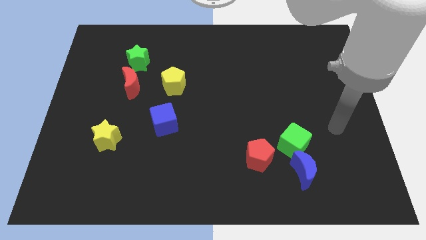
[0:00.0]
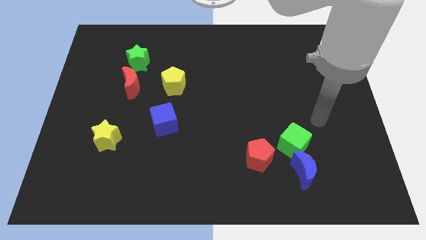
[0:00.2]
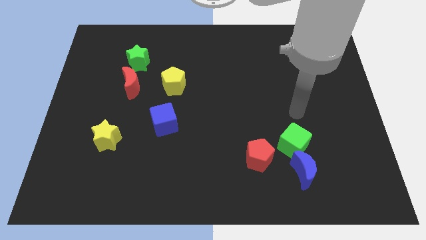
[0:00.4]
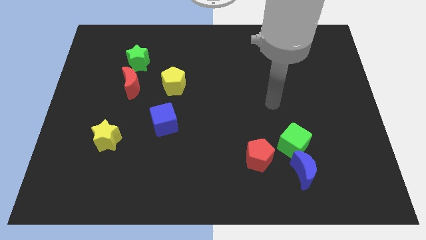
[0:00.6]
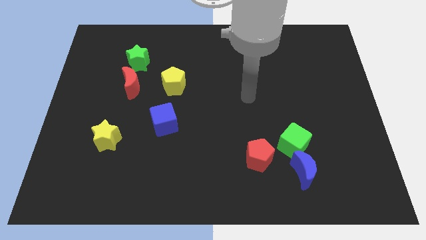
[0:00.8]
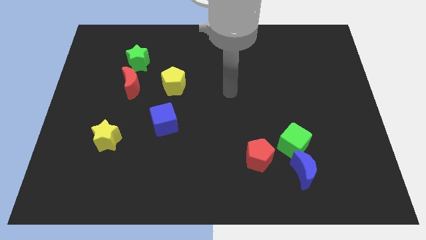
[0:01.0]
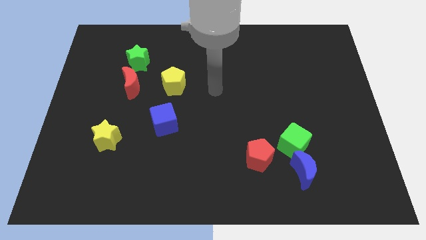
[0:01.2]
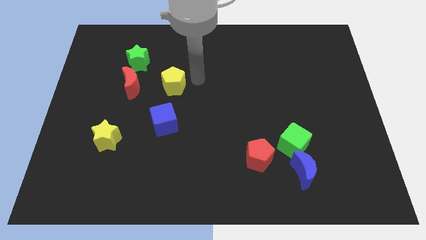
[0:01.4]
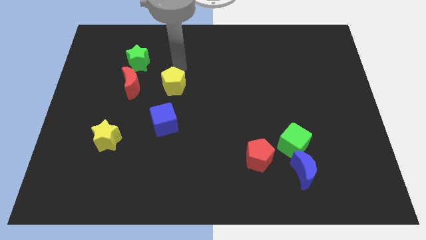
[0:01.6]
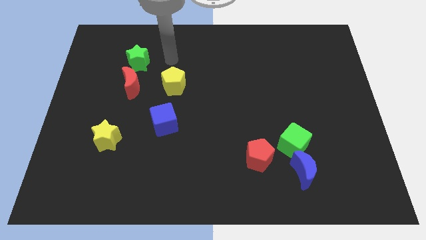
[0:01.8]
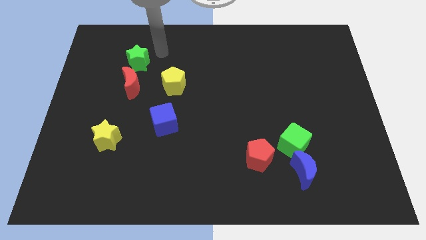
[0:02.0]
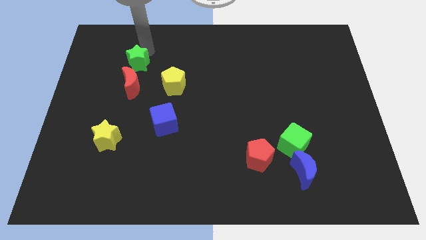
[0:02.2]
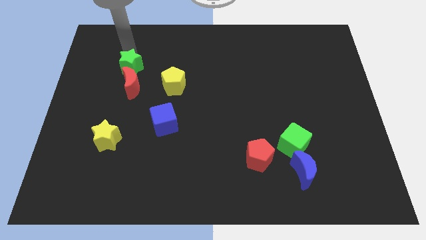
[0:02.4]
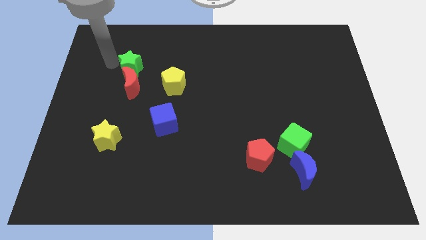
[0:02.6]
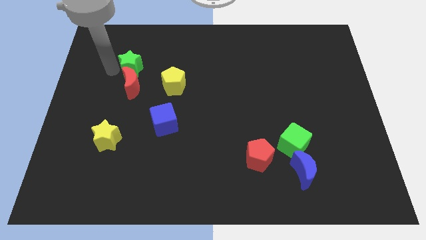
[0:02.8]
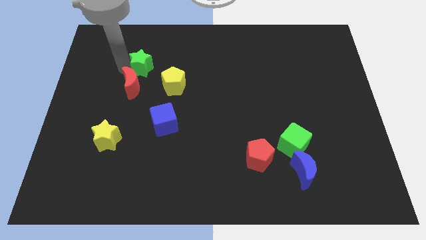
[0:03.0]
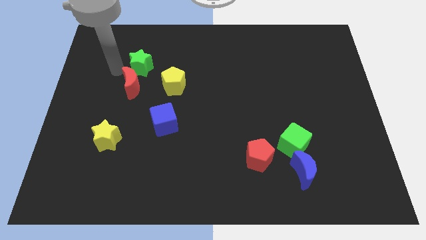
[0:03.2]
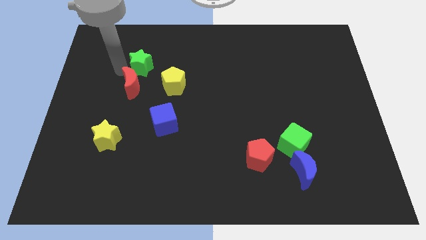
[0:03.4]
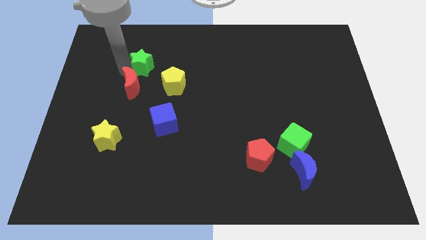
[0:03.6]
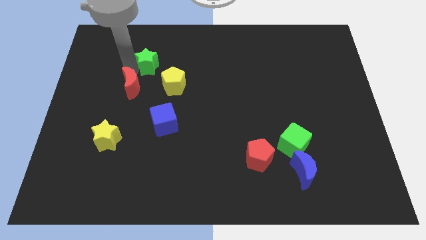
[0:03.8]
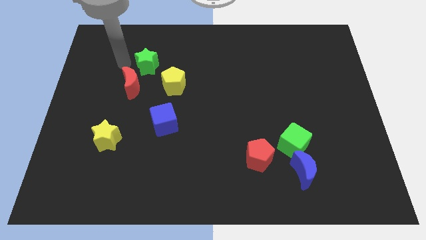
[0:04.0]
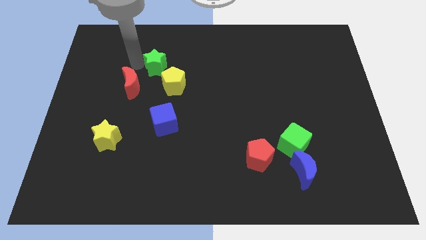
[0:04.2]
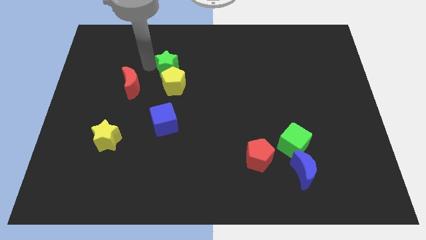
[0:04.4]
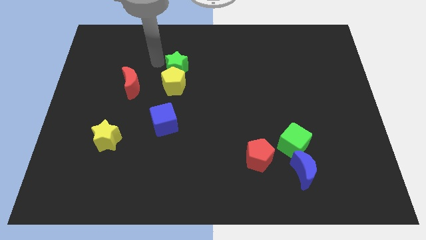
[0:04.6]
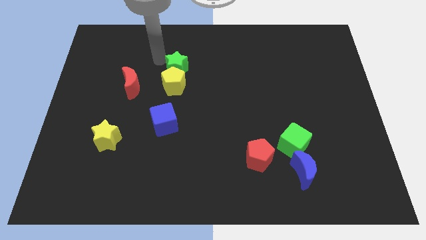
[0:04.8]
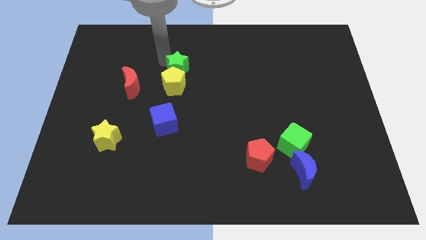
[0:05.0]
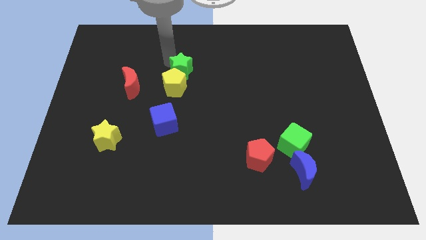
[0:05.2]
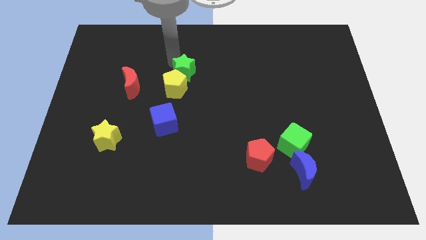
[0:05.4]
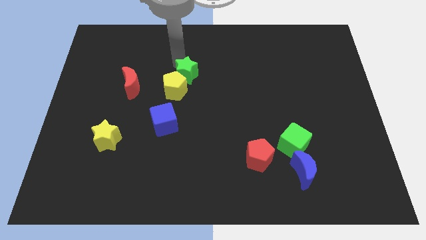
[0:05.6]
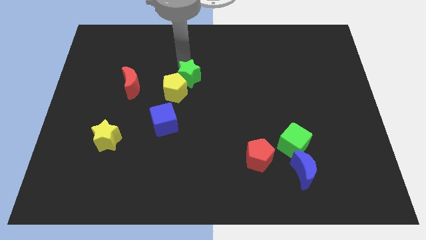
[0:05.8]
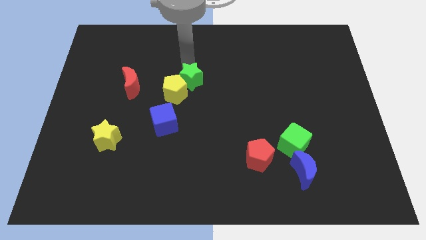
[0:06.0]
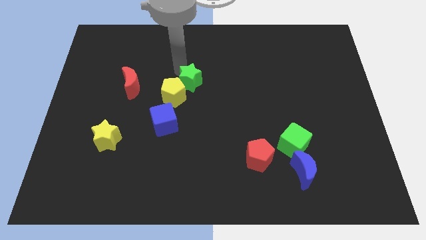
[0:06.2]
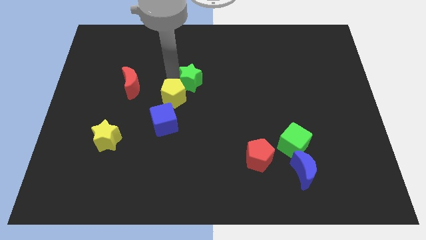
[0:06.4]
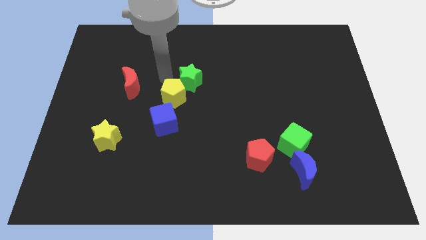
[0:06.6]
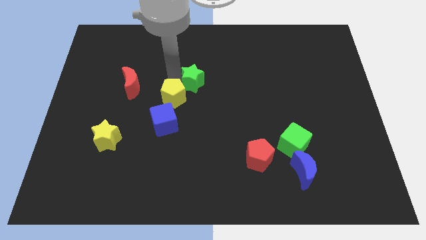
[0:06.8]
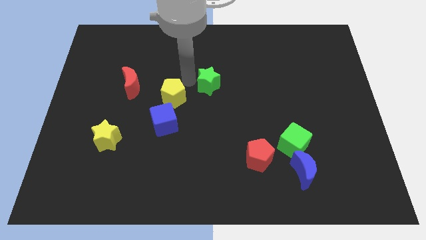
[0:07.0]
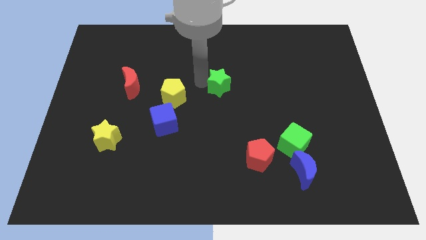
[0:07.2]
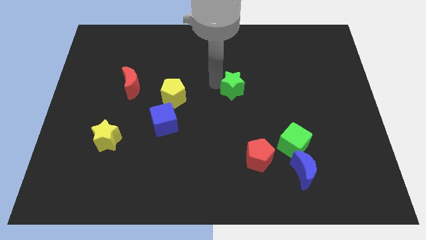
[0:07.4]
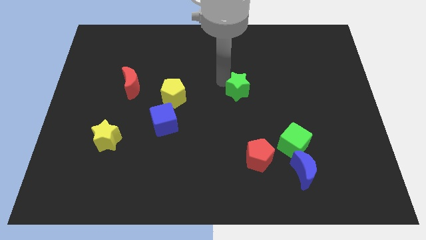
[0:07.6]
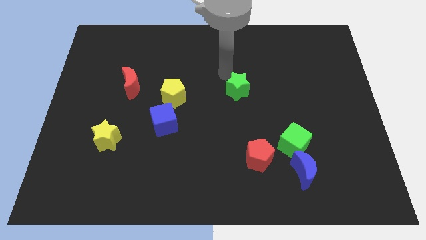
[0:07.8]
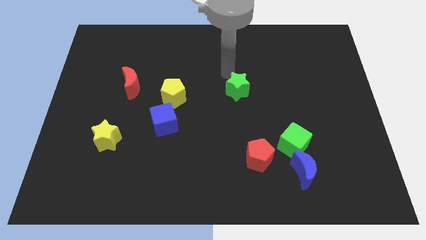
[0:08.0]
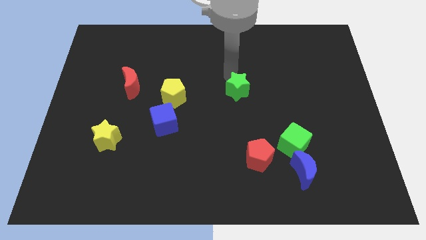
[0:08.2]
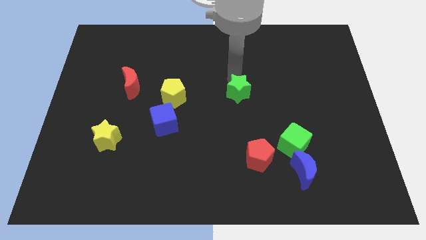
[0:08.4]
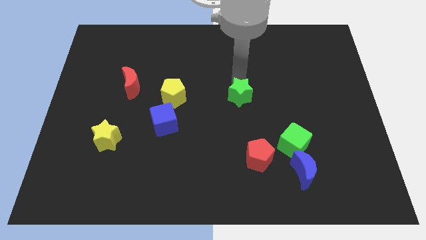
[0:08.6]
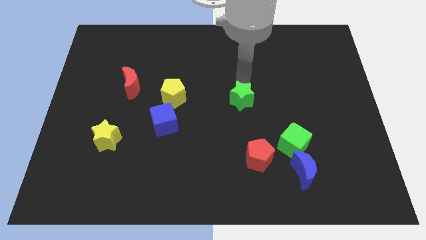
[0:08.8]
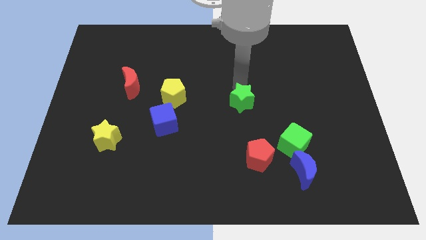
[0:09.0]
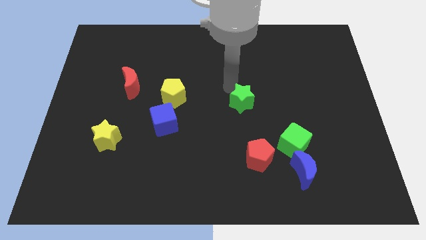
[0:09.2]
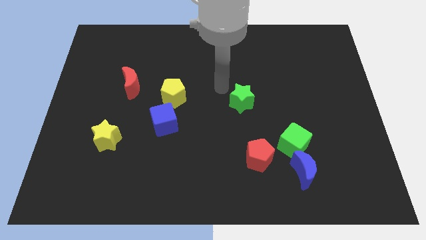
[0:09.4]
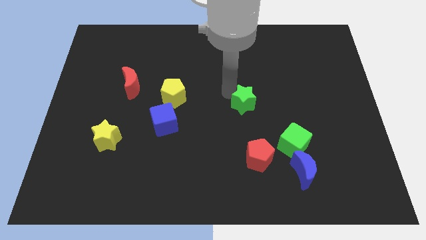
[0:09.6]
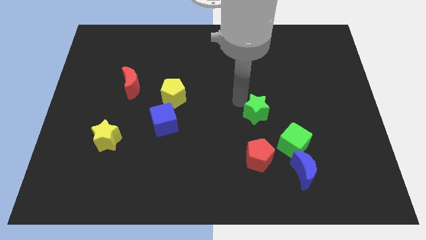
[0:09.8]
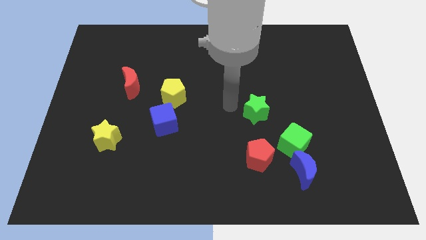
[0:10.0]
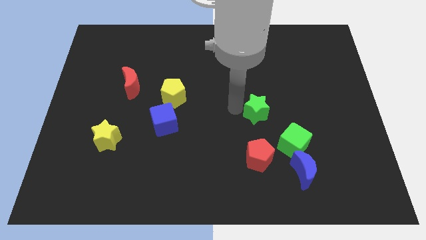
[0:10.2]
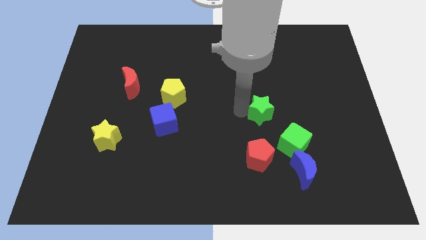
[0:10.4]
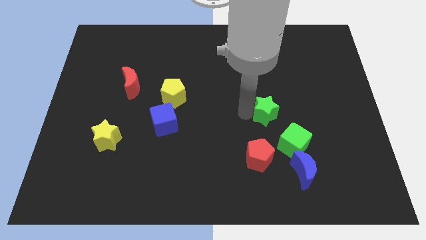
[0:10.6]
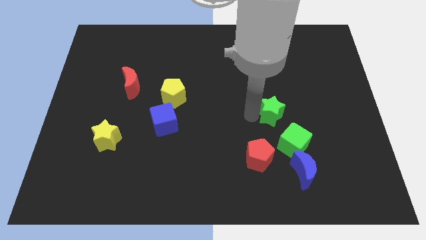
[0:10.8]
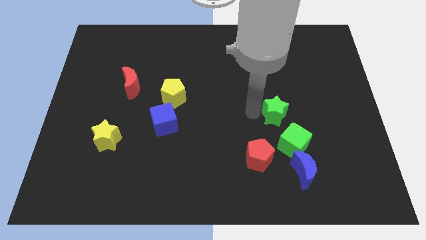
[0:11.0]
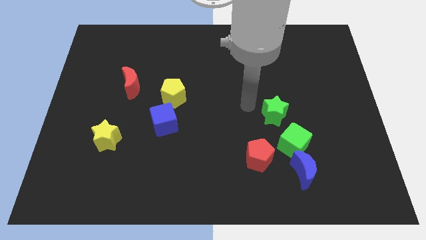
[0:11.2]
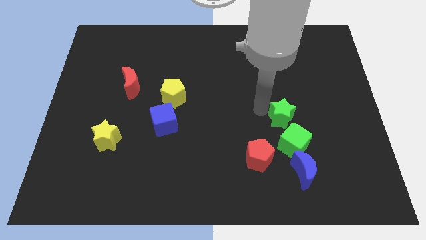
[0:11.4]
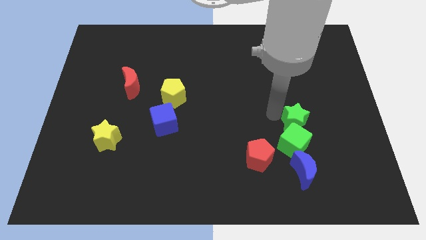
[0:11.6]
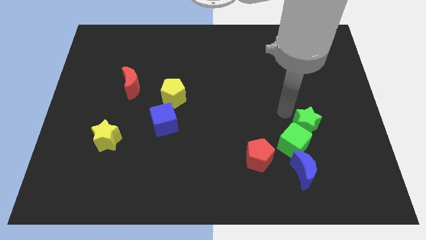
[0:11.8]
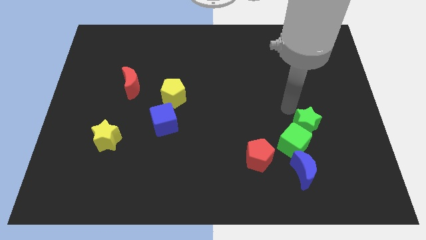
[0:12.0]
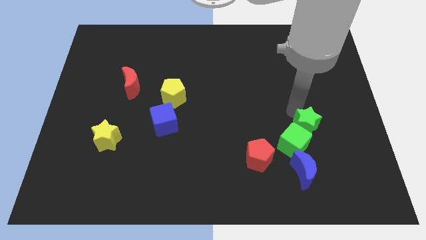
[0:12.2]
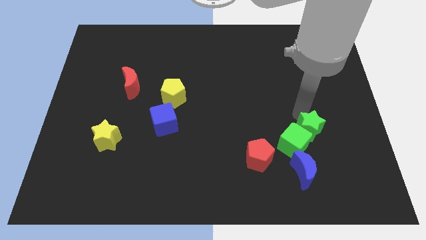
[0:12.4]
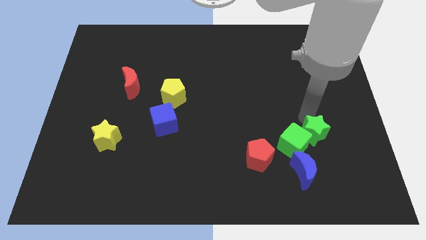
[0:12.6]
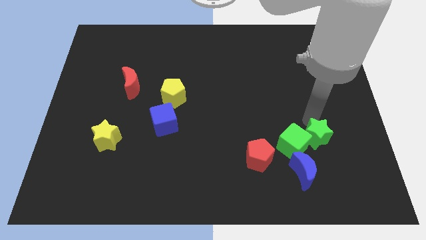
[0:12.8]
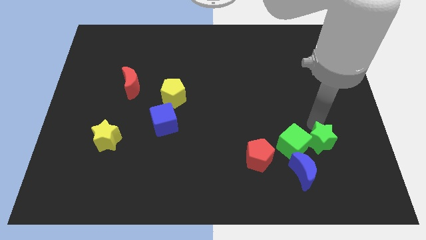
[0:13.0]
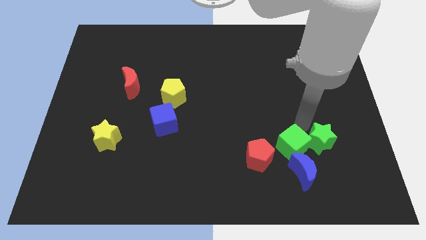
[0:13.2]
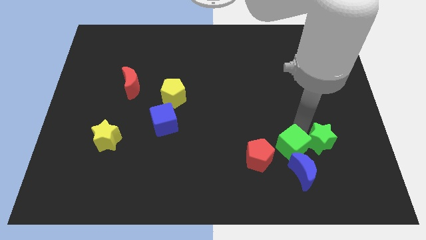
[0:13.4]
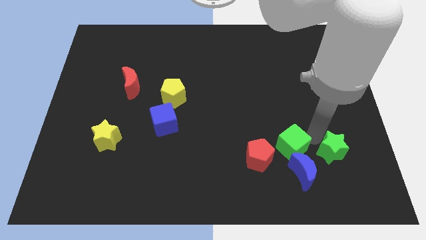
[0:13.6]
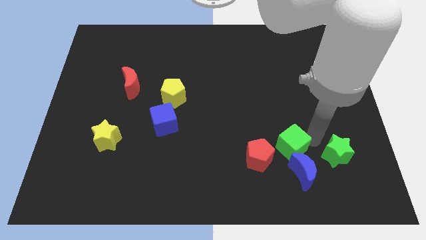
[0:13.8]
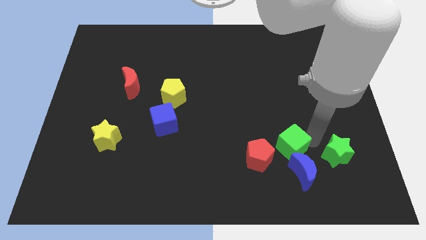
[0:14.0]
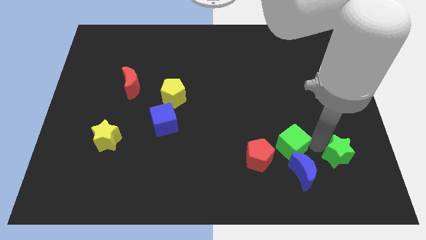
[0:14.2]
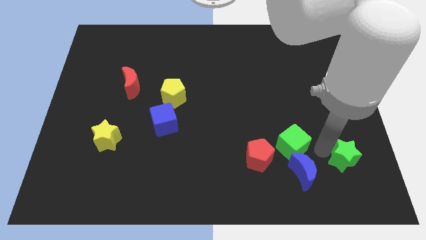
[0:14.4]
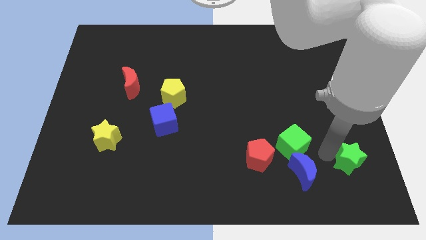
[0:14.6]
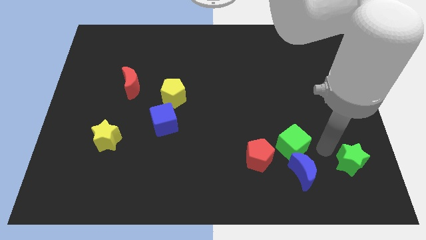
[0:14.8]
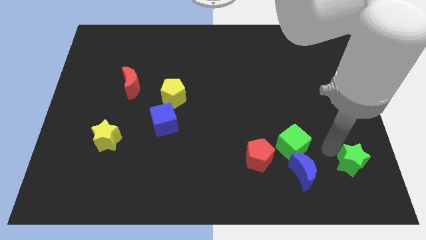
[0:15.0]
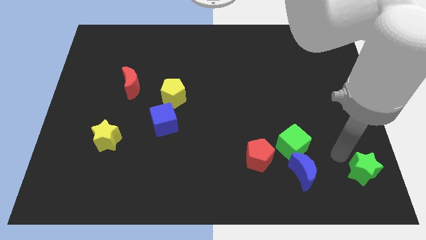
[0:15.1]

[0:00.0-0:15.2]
slide the green star to the bottom right of the board
